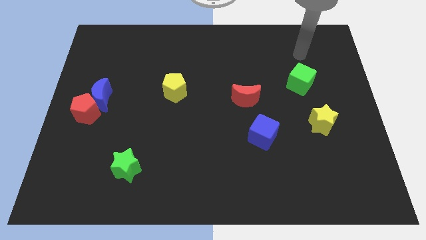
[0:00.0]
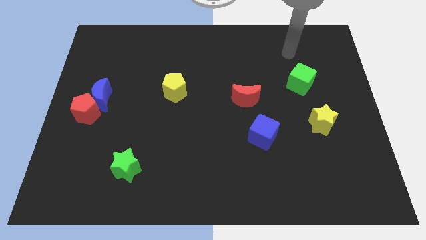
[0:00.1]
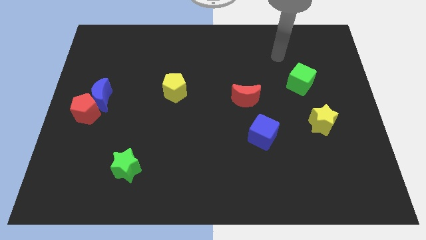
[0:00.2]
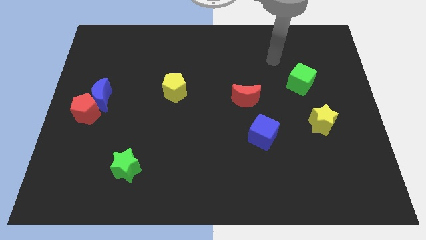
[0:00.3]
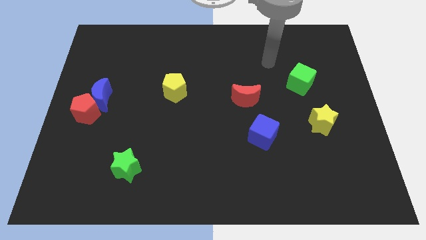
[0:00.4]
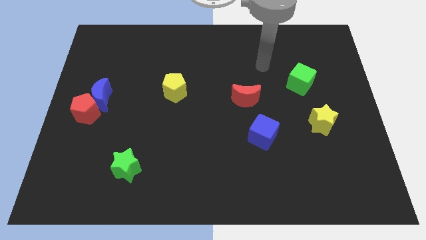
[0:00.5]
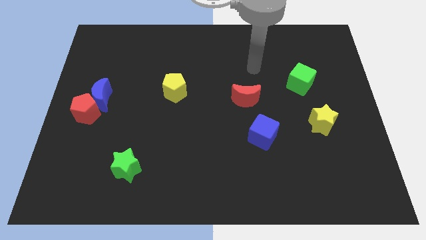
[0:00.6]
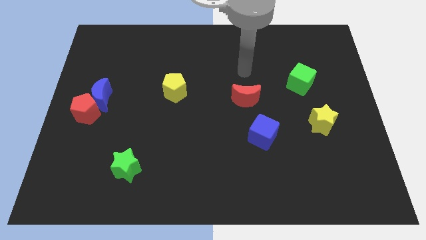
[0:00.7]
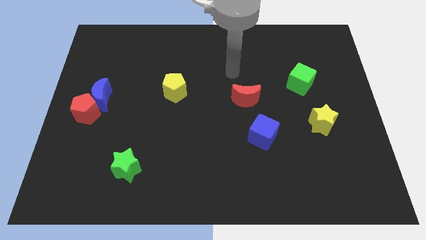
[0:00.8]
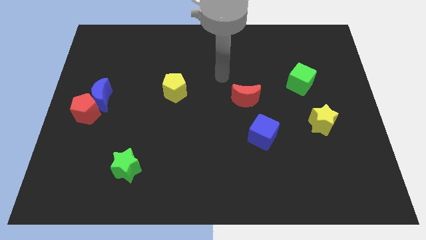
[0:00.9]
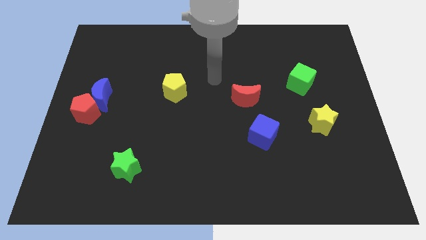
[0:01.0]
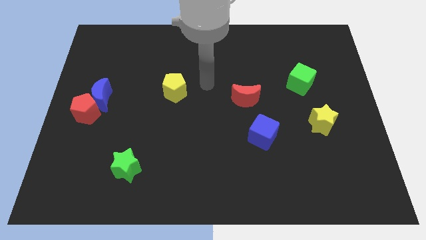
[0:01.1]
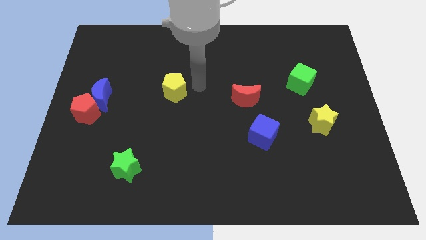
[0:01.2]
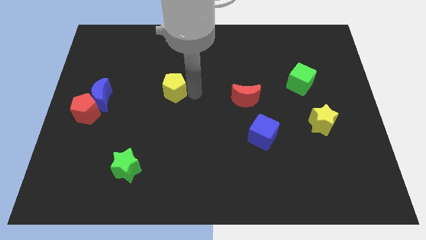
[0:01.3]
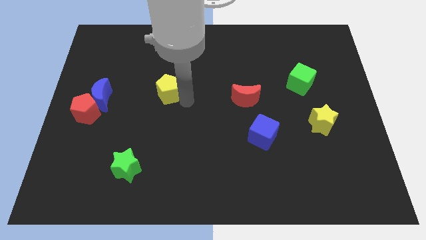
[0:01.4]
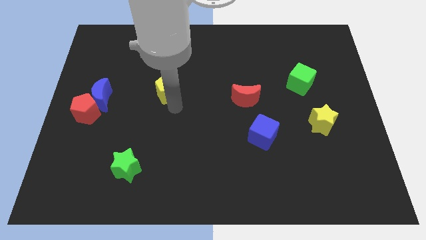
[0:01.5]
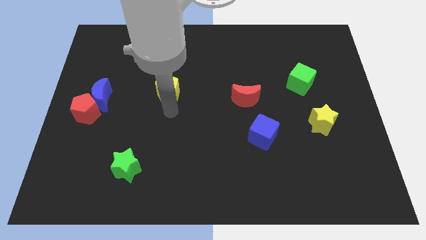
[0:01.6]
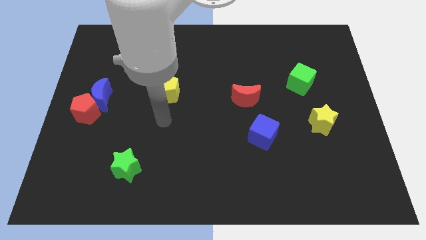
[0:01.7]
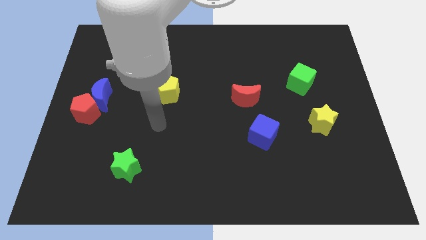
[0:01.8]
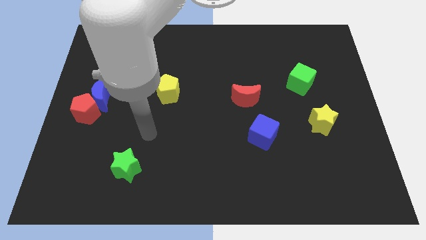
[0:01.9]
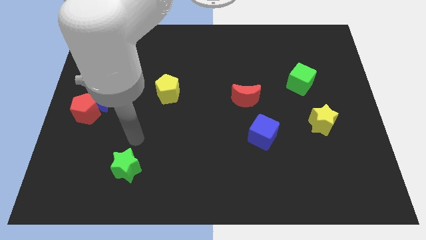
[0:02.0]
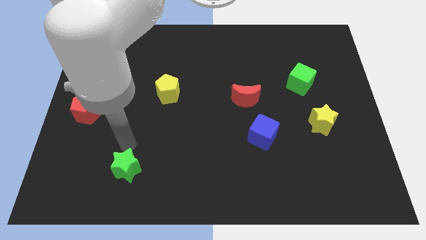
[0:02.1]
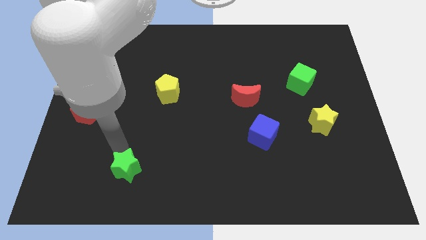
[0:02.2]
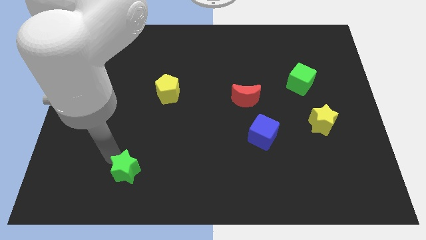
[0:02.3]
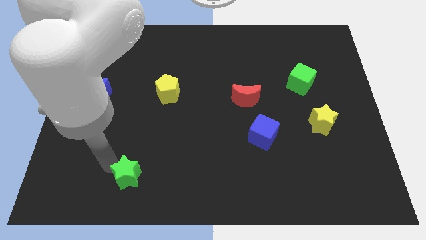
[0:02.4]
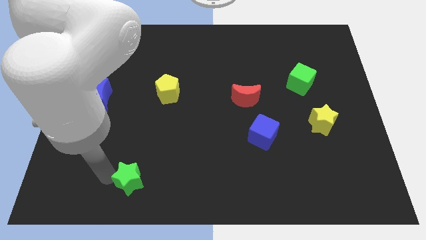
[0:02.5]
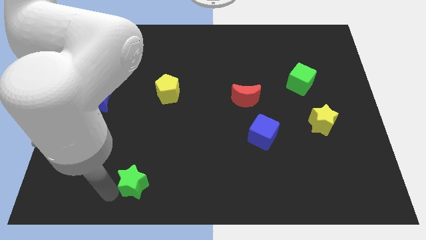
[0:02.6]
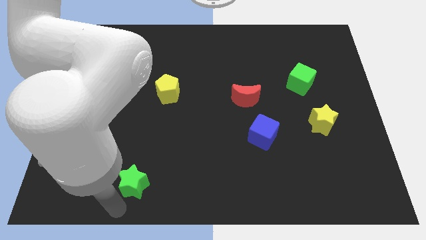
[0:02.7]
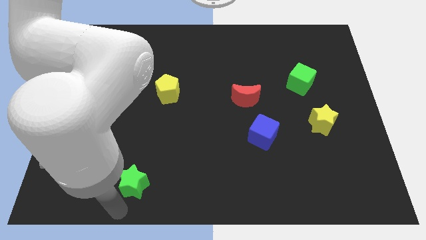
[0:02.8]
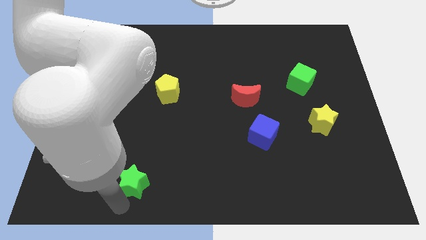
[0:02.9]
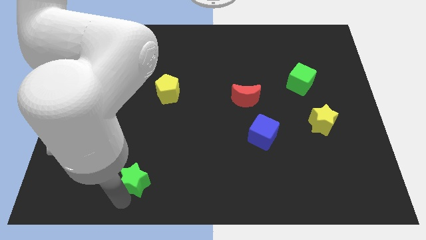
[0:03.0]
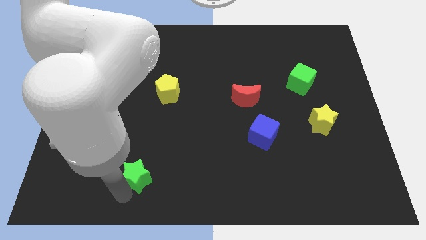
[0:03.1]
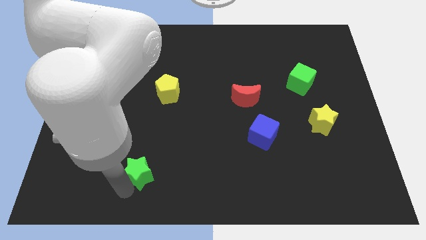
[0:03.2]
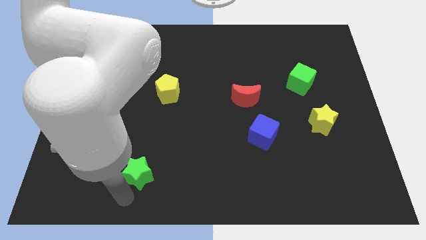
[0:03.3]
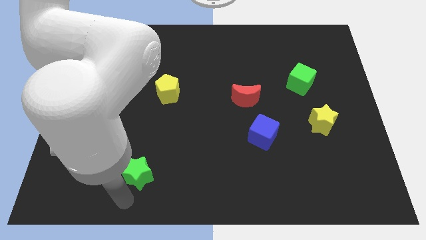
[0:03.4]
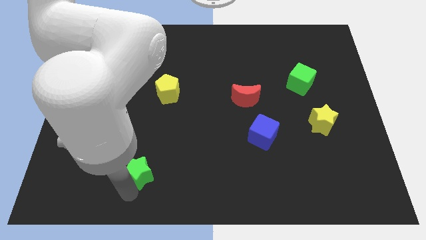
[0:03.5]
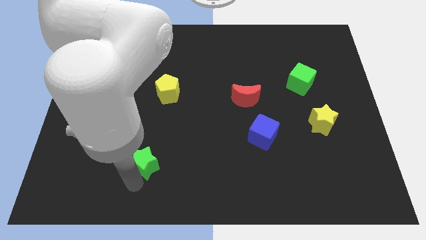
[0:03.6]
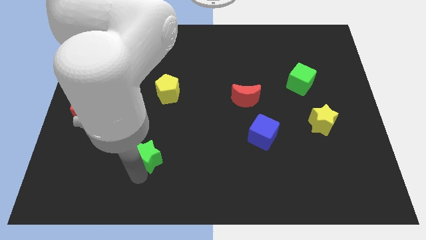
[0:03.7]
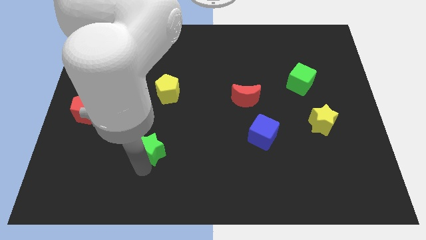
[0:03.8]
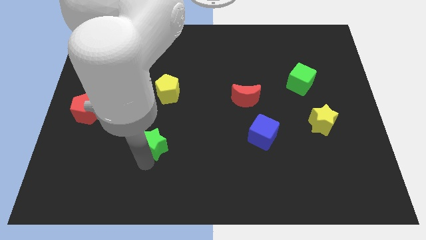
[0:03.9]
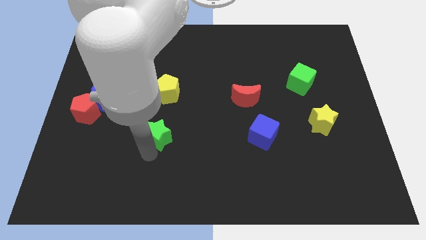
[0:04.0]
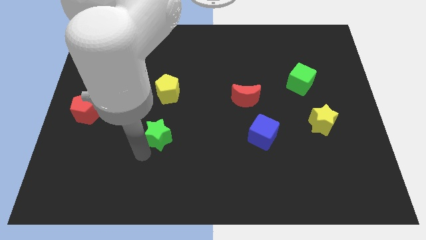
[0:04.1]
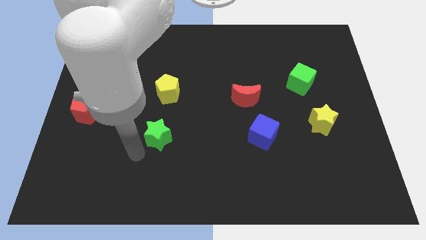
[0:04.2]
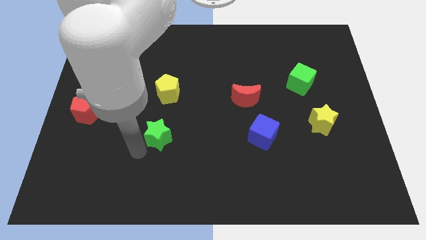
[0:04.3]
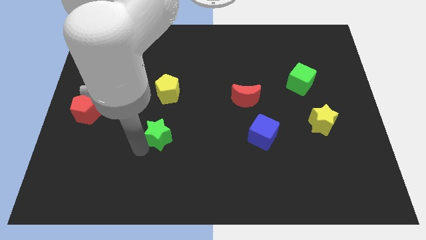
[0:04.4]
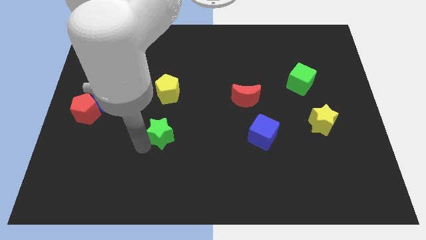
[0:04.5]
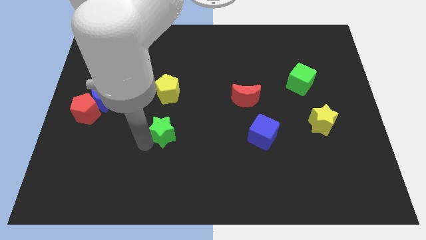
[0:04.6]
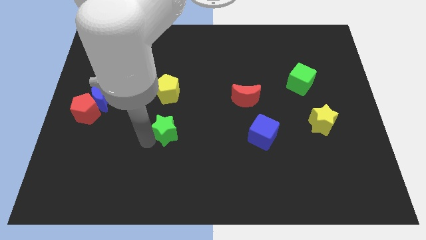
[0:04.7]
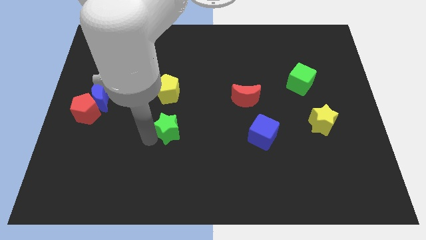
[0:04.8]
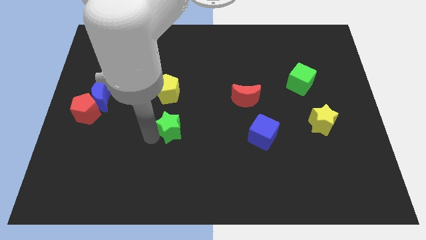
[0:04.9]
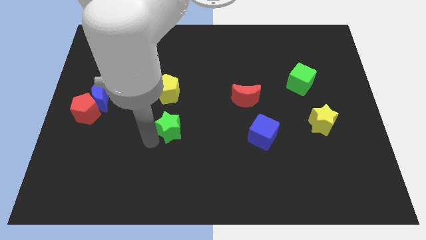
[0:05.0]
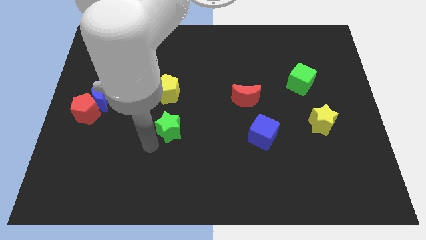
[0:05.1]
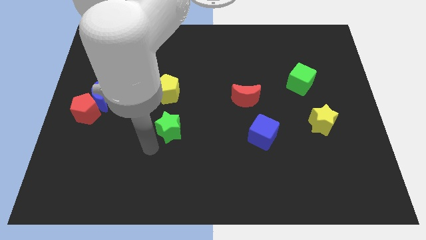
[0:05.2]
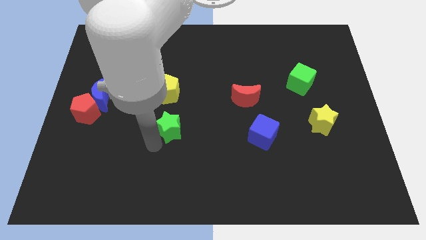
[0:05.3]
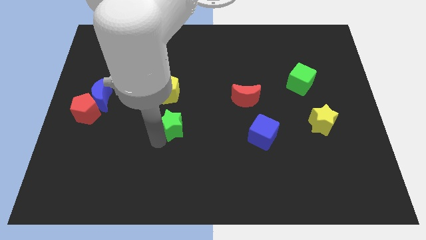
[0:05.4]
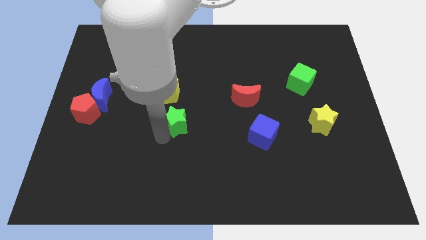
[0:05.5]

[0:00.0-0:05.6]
put the green star diagonally down and to the right of the yellow pentagon

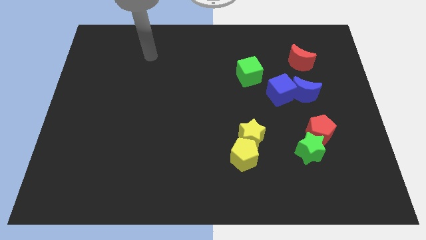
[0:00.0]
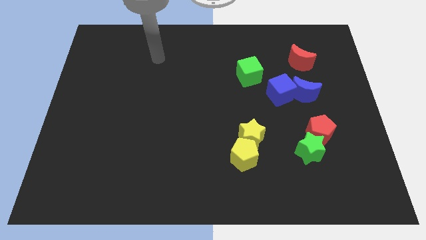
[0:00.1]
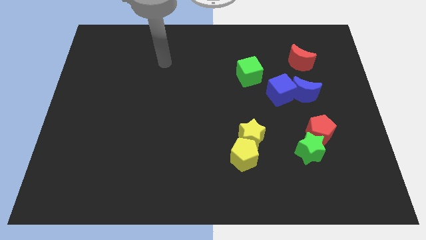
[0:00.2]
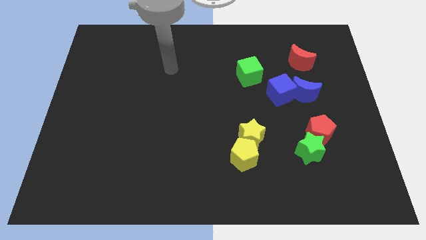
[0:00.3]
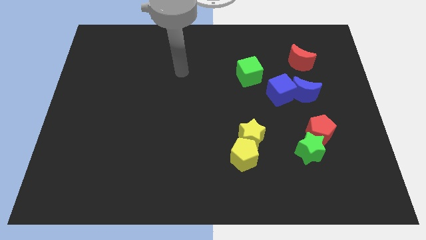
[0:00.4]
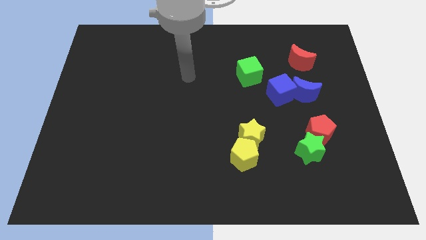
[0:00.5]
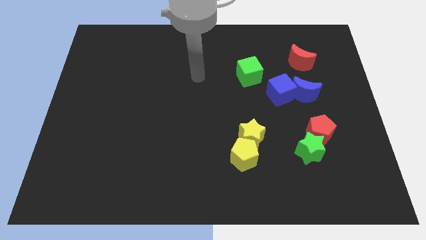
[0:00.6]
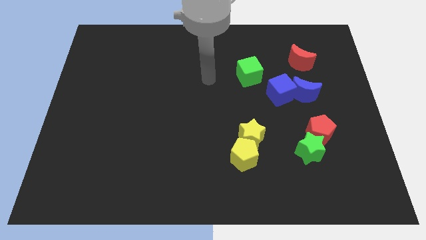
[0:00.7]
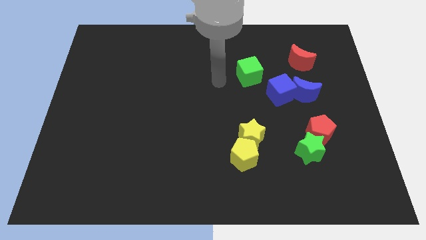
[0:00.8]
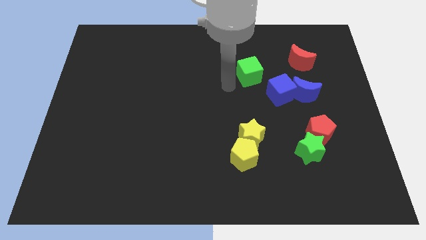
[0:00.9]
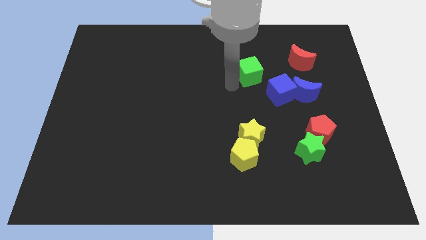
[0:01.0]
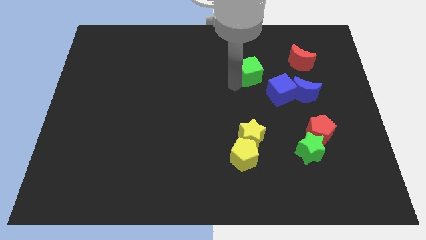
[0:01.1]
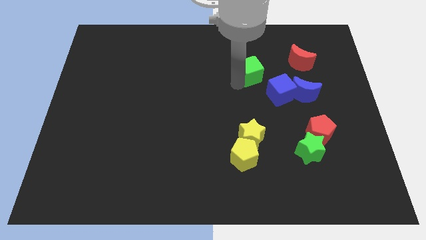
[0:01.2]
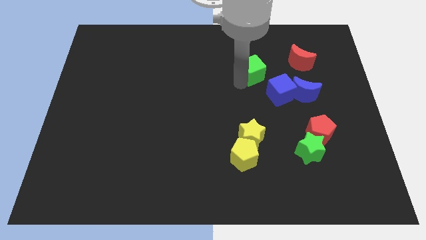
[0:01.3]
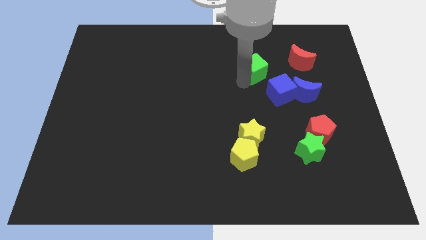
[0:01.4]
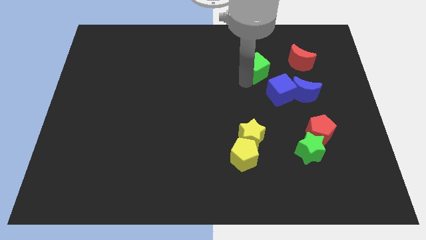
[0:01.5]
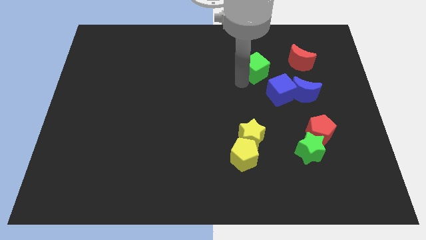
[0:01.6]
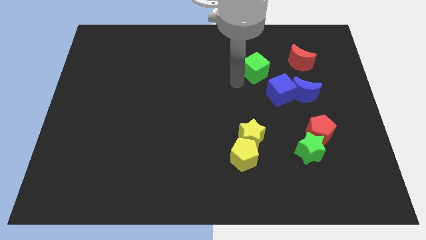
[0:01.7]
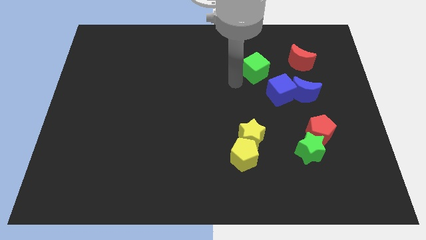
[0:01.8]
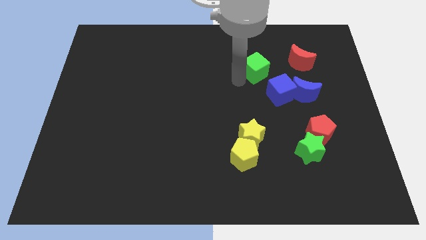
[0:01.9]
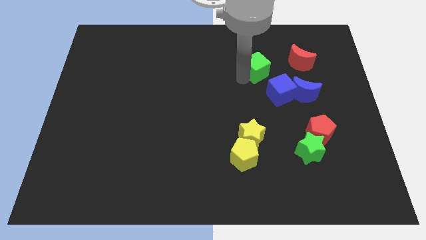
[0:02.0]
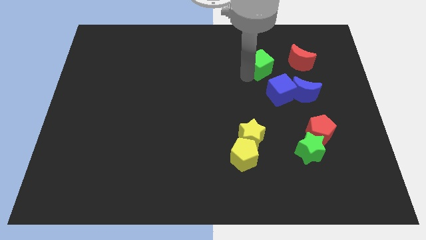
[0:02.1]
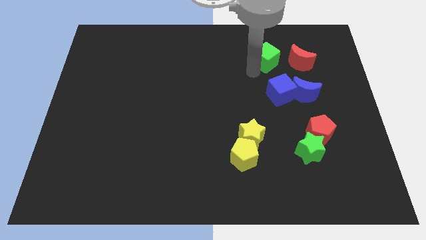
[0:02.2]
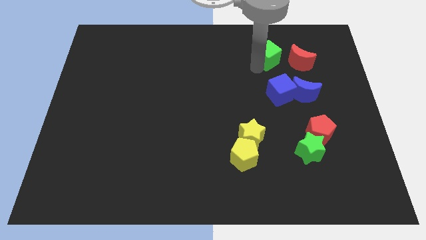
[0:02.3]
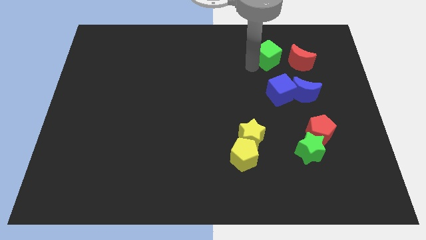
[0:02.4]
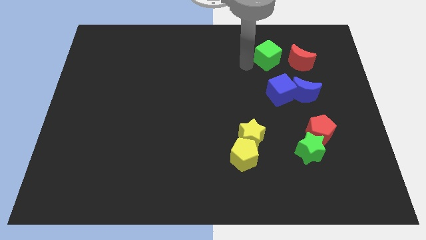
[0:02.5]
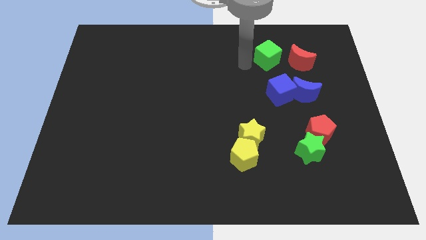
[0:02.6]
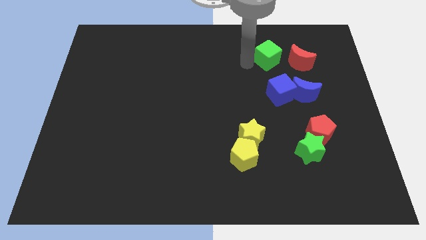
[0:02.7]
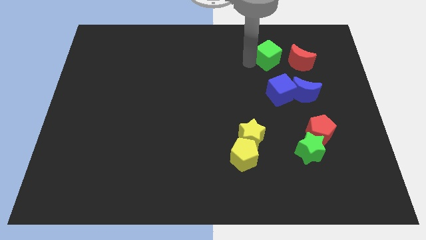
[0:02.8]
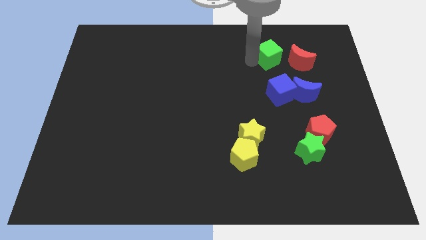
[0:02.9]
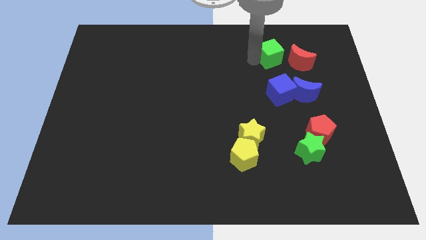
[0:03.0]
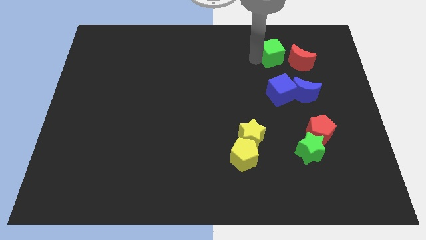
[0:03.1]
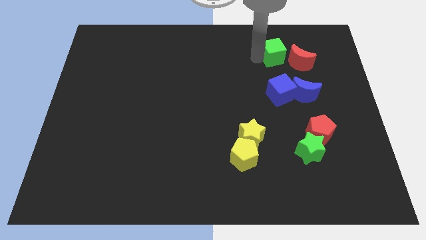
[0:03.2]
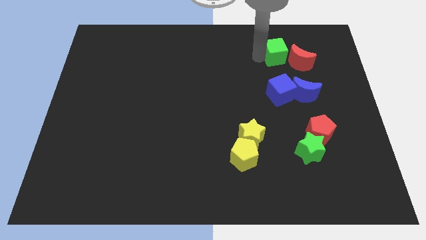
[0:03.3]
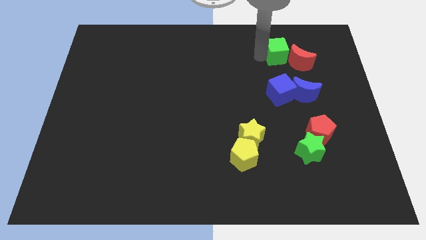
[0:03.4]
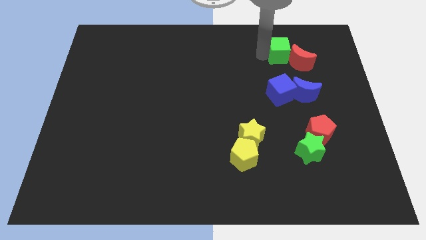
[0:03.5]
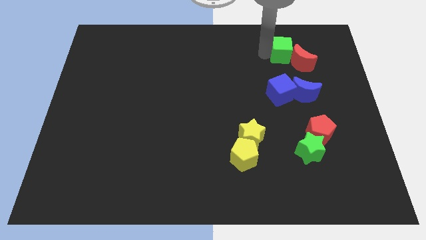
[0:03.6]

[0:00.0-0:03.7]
push the green cube to the top side of the blue moon
